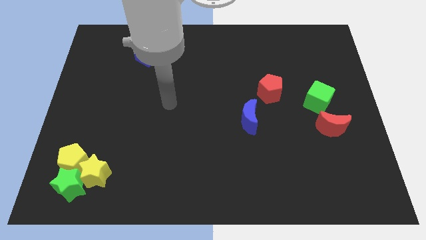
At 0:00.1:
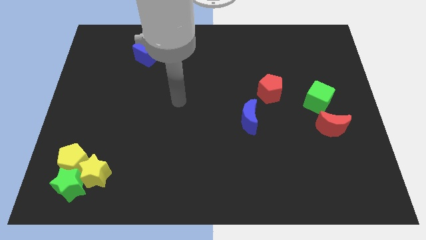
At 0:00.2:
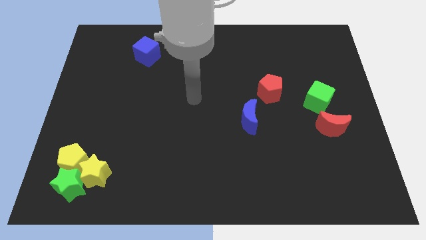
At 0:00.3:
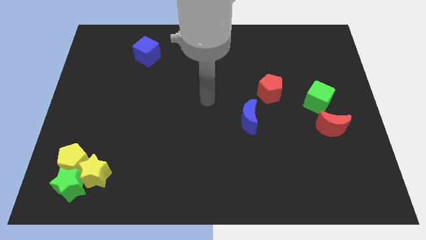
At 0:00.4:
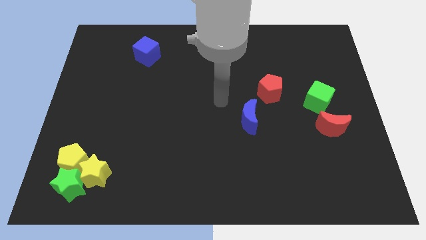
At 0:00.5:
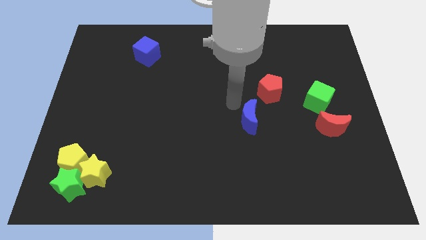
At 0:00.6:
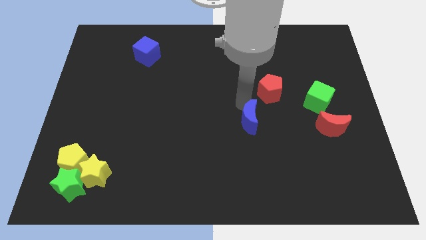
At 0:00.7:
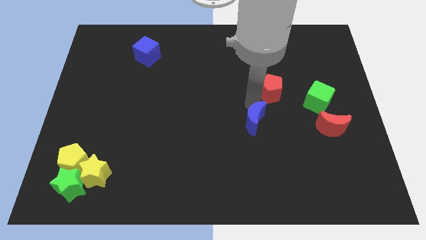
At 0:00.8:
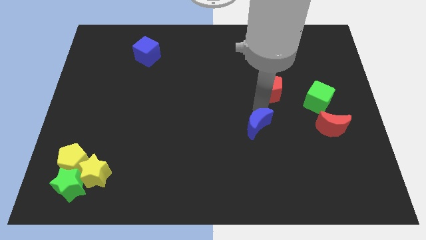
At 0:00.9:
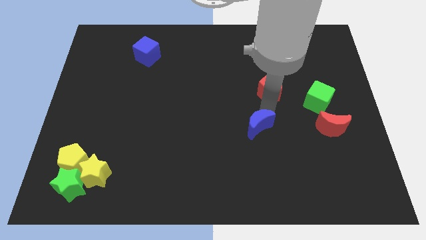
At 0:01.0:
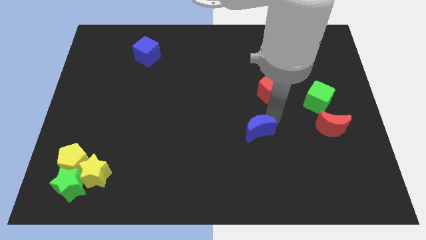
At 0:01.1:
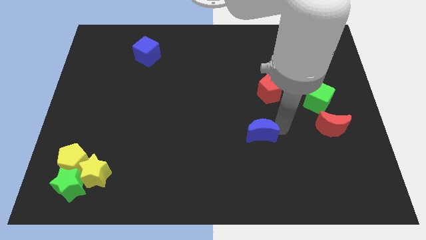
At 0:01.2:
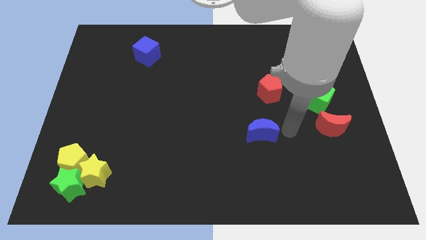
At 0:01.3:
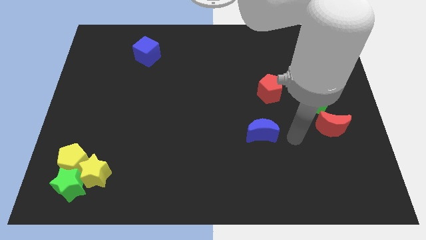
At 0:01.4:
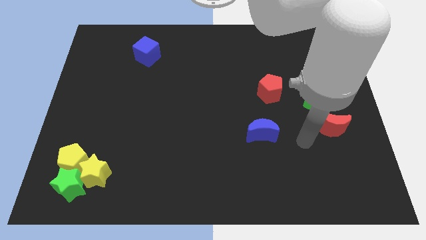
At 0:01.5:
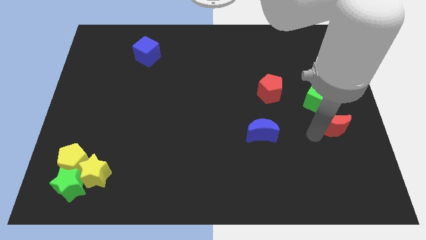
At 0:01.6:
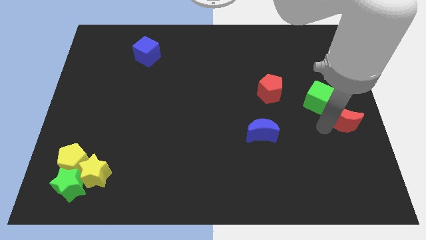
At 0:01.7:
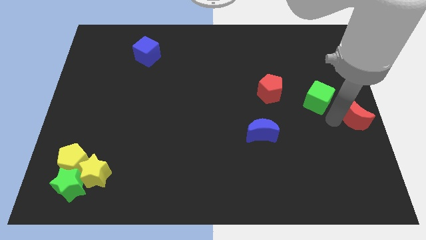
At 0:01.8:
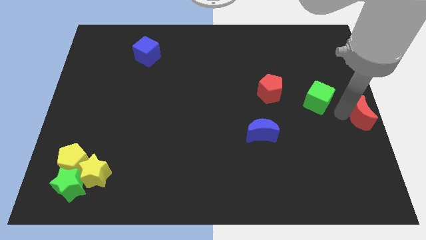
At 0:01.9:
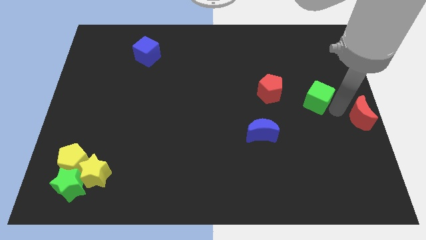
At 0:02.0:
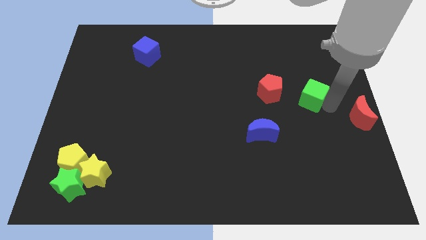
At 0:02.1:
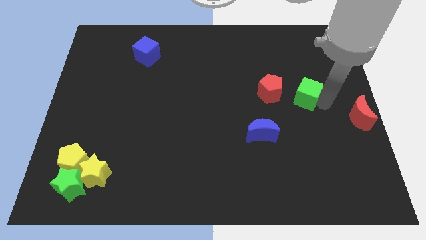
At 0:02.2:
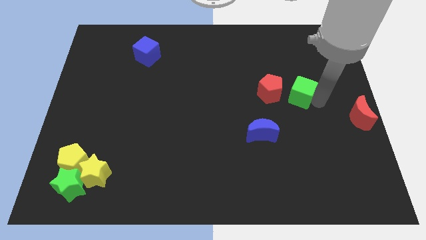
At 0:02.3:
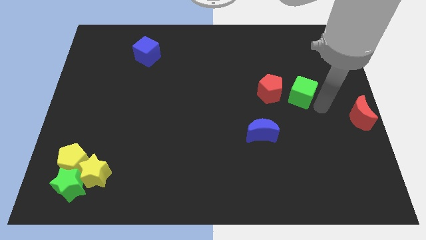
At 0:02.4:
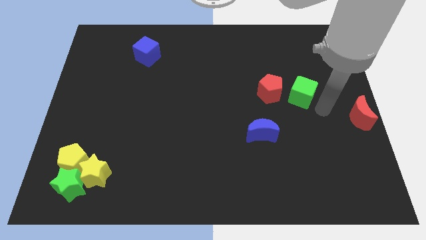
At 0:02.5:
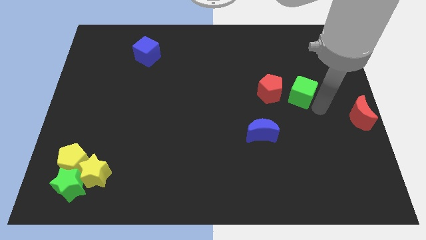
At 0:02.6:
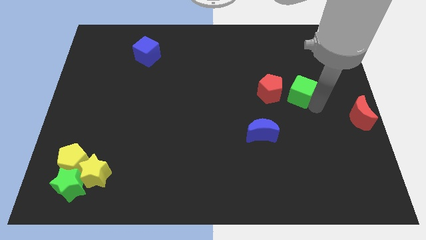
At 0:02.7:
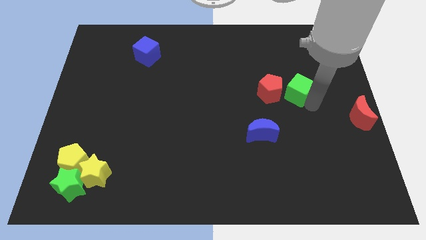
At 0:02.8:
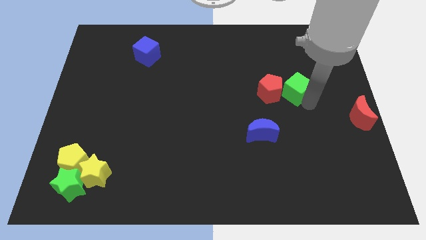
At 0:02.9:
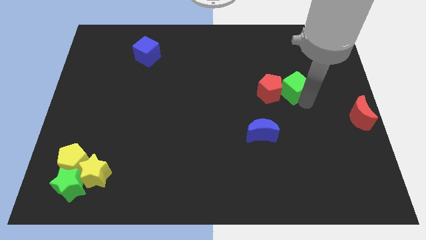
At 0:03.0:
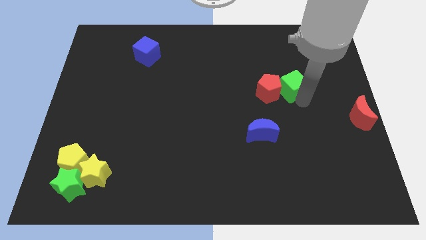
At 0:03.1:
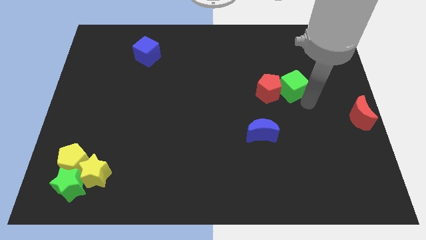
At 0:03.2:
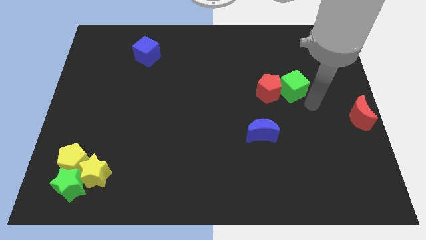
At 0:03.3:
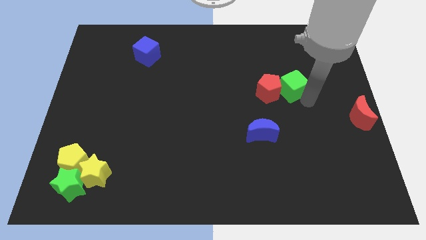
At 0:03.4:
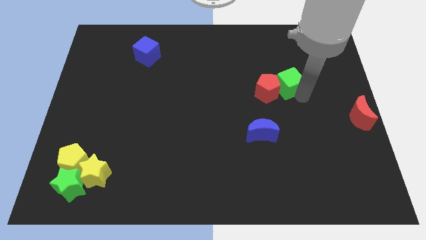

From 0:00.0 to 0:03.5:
move the green cube diagonally upwards and left a little

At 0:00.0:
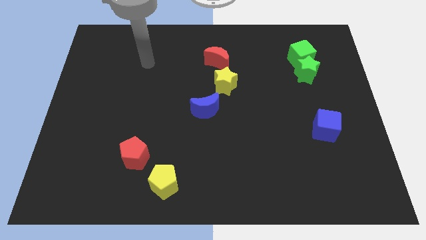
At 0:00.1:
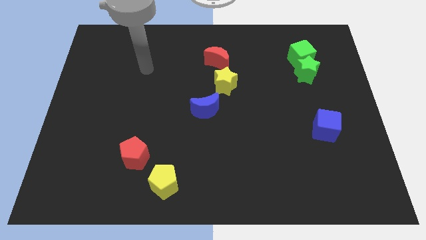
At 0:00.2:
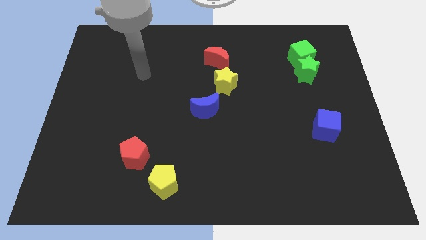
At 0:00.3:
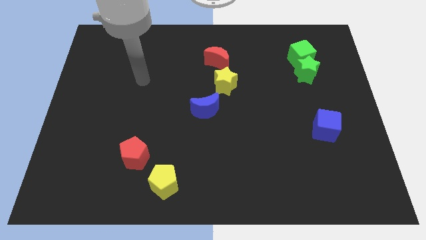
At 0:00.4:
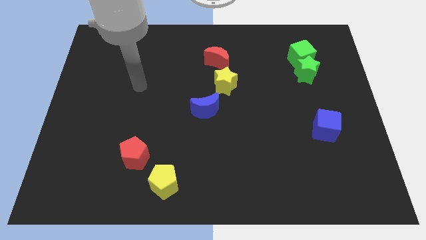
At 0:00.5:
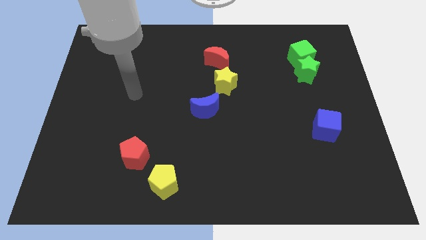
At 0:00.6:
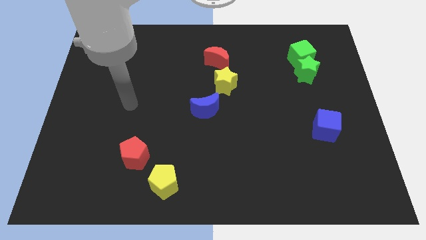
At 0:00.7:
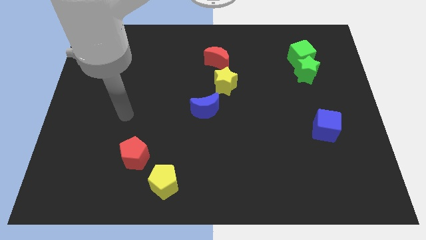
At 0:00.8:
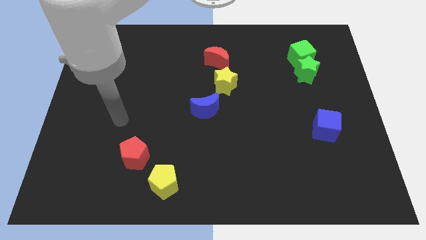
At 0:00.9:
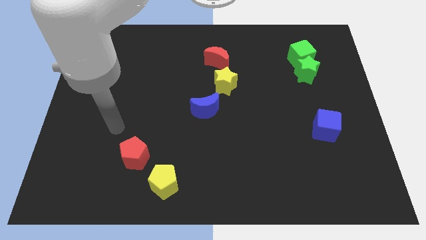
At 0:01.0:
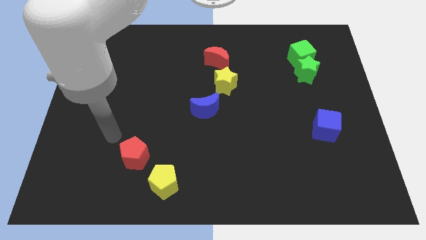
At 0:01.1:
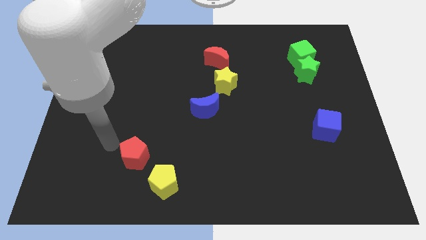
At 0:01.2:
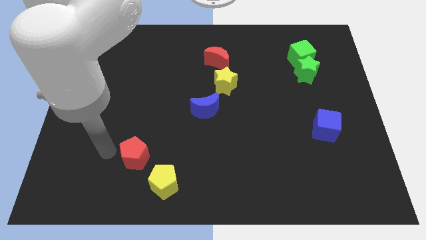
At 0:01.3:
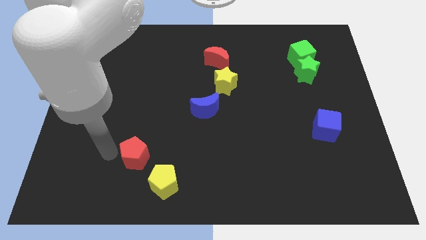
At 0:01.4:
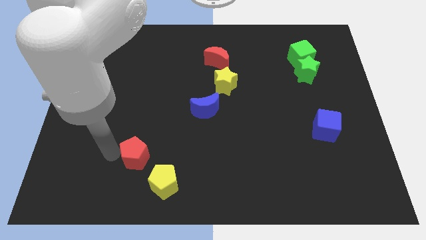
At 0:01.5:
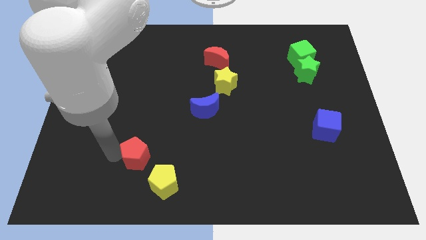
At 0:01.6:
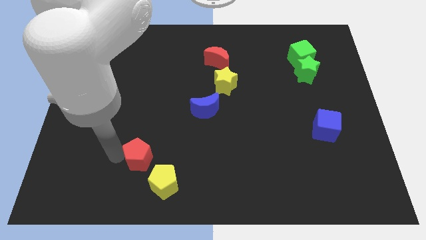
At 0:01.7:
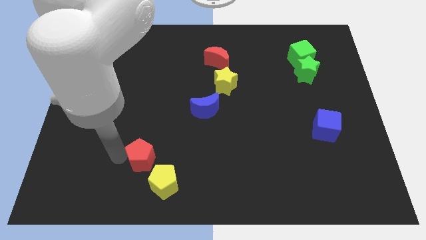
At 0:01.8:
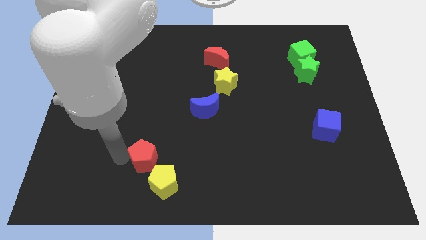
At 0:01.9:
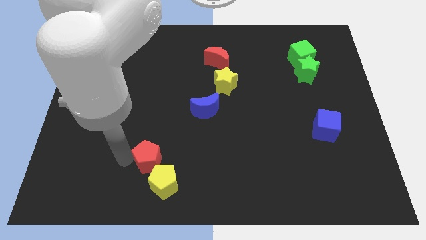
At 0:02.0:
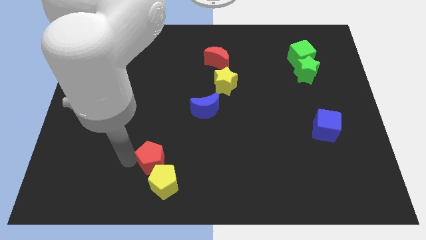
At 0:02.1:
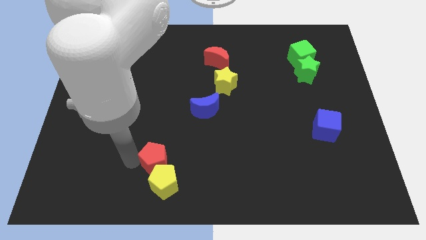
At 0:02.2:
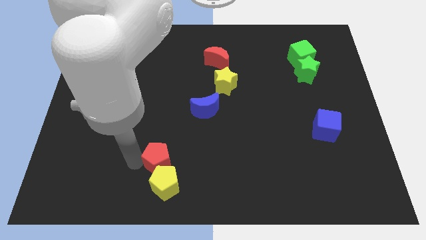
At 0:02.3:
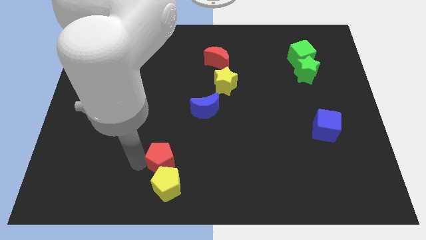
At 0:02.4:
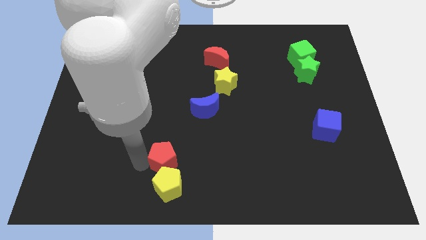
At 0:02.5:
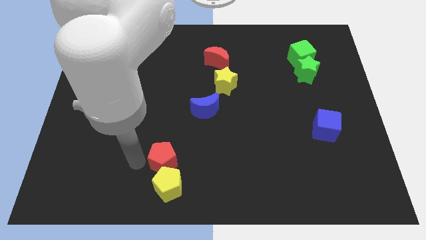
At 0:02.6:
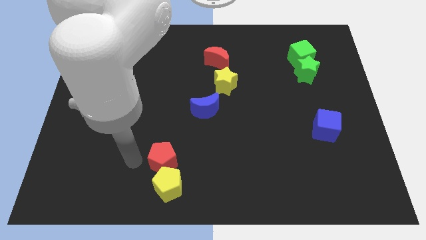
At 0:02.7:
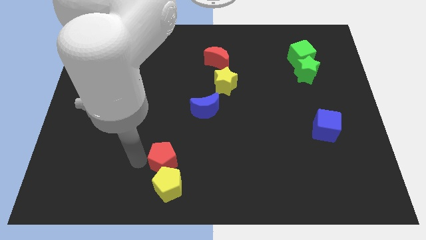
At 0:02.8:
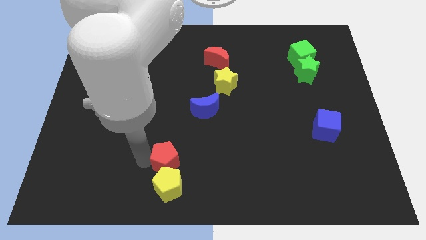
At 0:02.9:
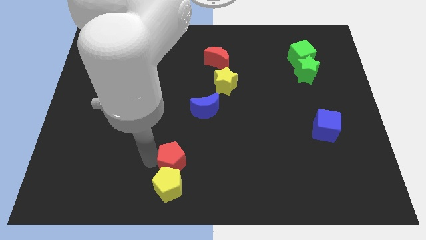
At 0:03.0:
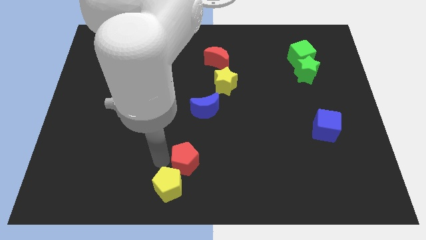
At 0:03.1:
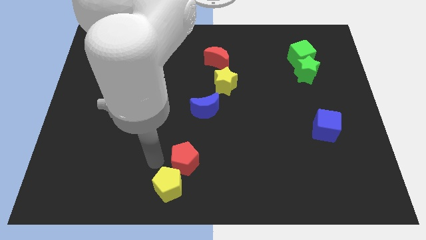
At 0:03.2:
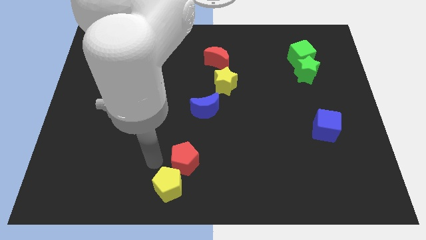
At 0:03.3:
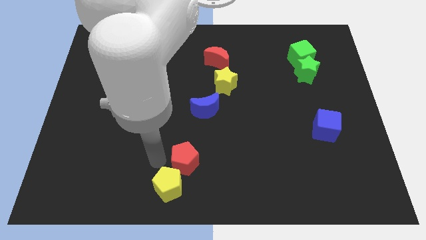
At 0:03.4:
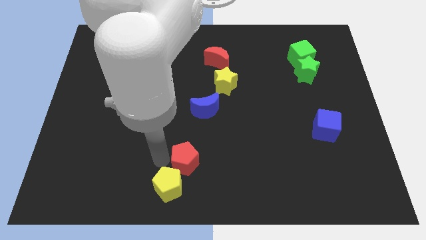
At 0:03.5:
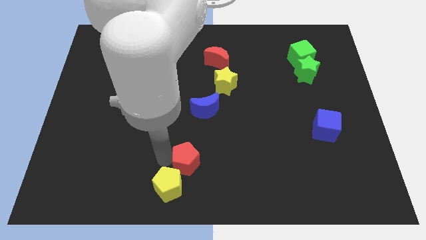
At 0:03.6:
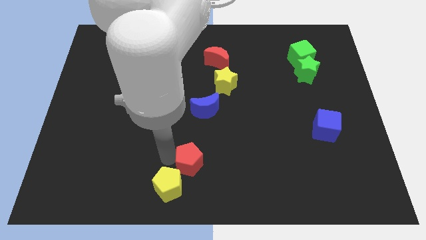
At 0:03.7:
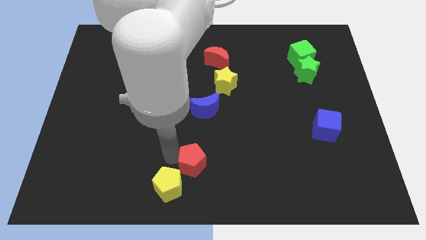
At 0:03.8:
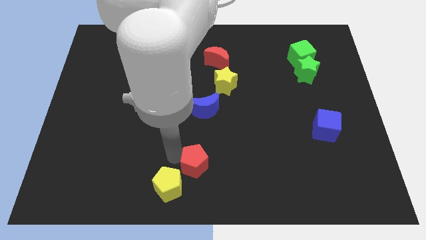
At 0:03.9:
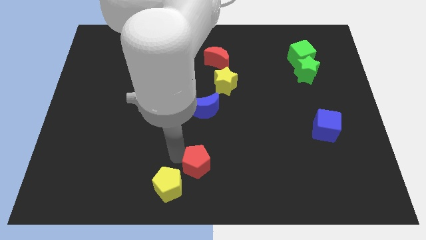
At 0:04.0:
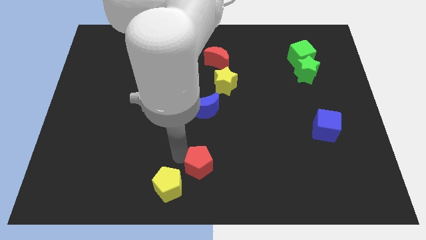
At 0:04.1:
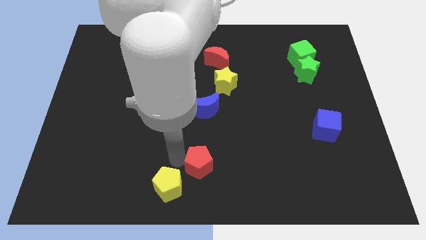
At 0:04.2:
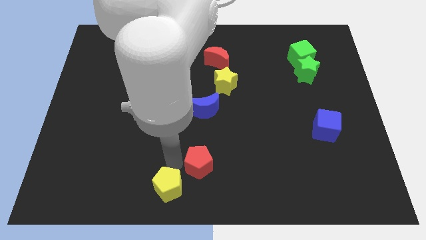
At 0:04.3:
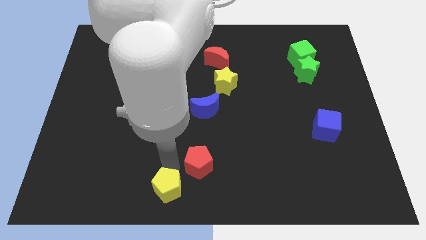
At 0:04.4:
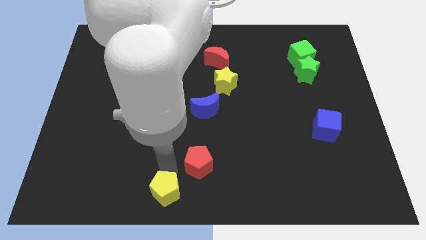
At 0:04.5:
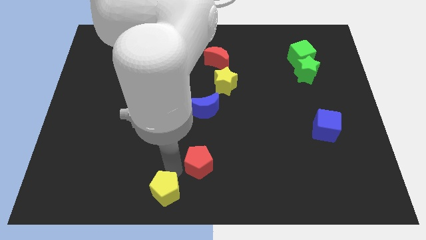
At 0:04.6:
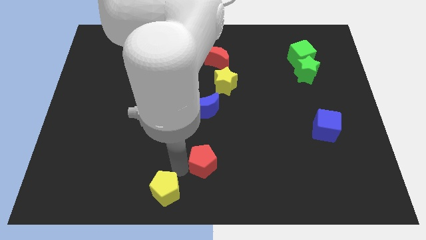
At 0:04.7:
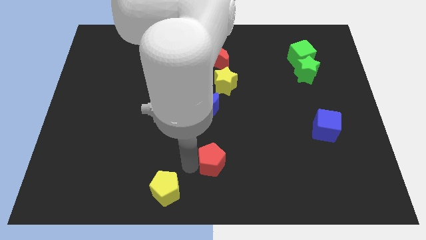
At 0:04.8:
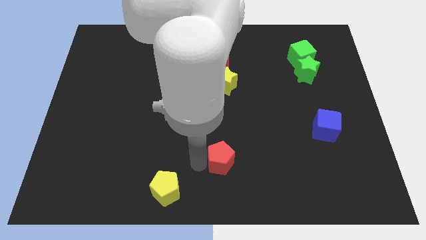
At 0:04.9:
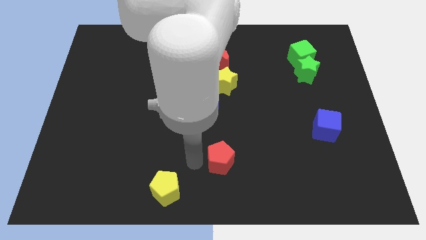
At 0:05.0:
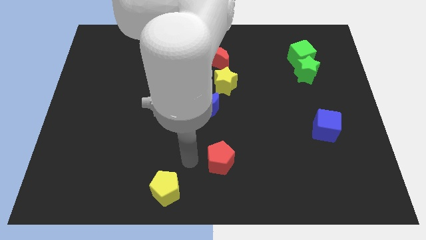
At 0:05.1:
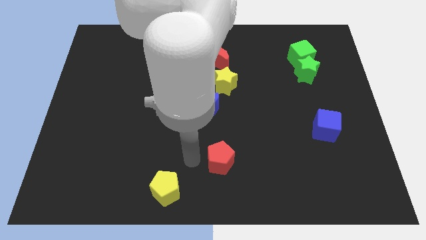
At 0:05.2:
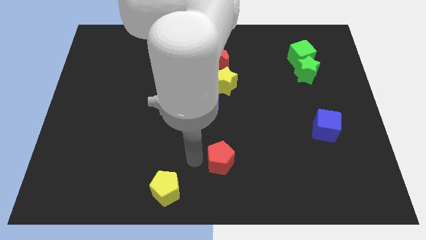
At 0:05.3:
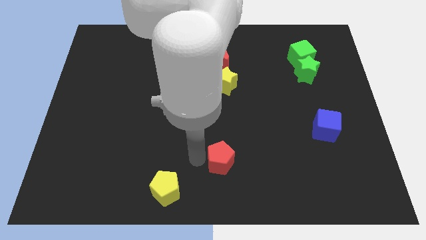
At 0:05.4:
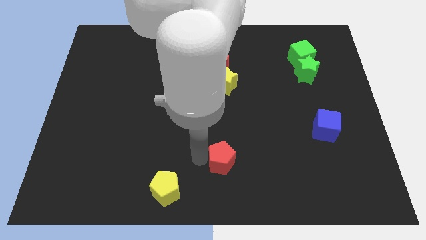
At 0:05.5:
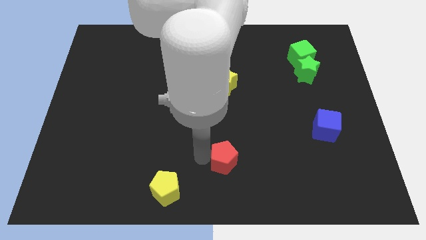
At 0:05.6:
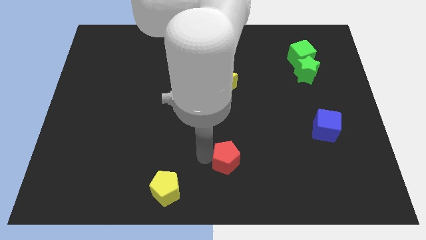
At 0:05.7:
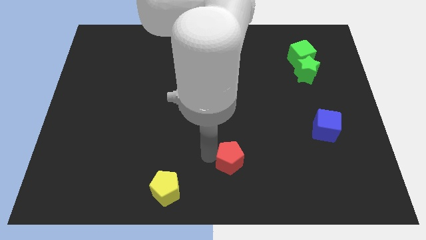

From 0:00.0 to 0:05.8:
push the red pentagon right
